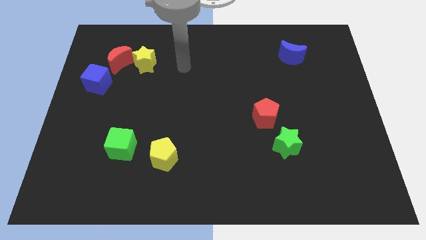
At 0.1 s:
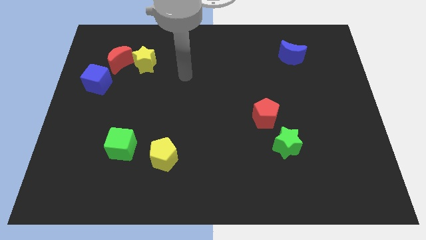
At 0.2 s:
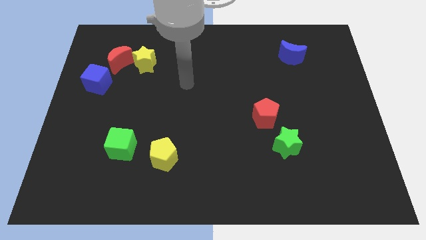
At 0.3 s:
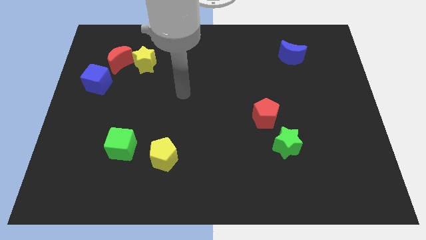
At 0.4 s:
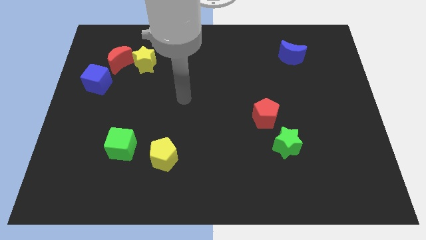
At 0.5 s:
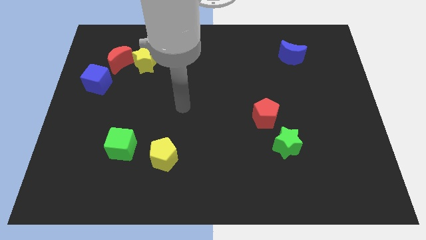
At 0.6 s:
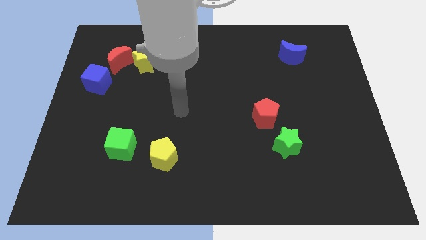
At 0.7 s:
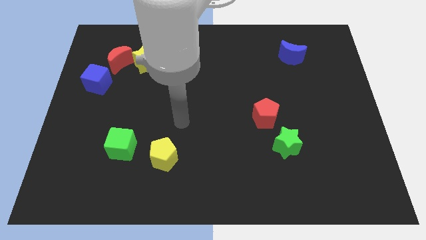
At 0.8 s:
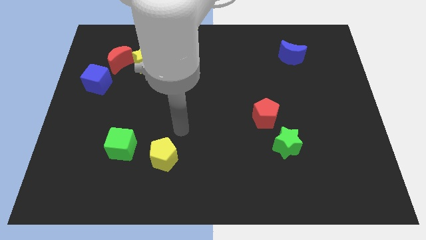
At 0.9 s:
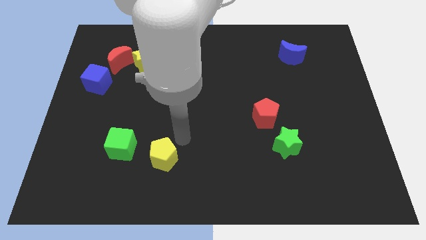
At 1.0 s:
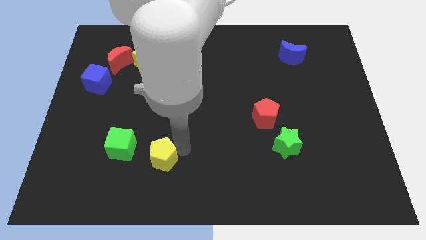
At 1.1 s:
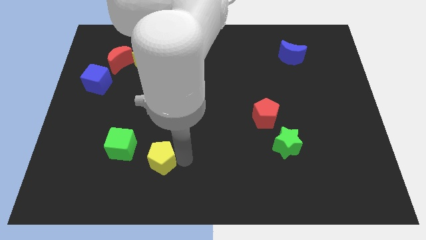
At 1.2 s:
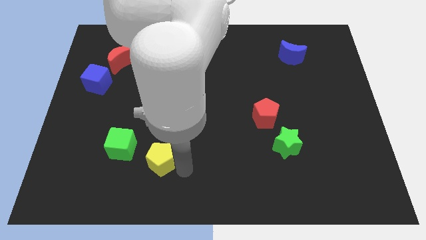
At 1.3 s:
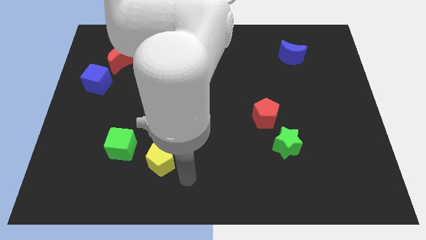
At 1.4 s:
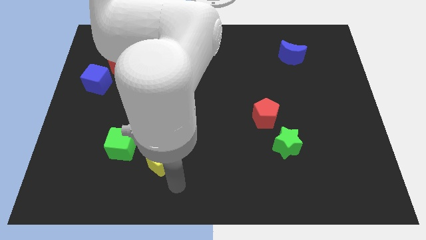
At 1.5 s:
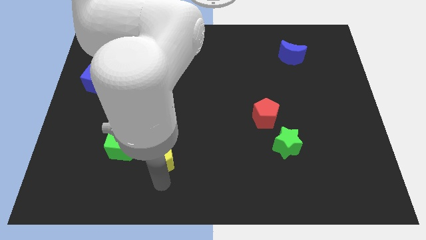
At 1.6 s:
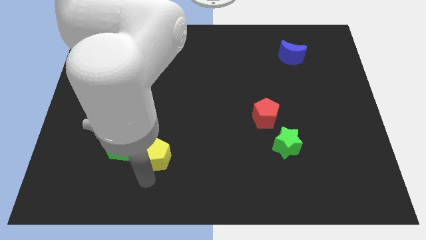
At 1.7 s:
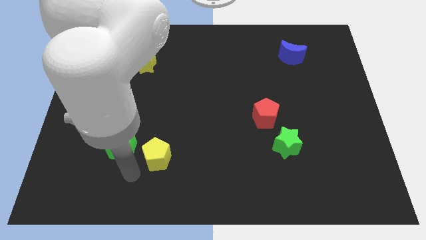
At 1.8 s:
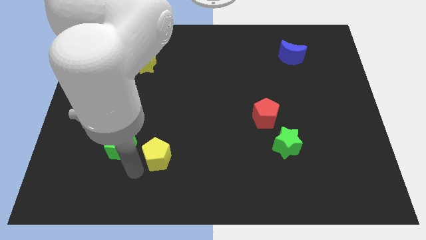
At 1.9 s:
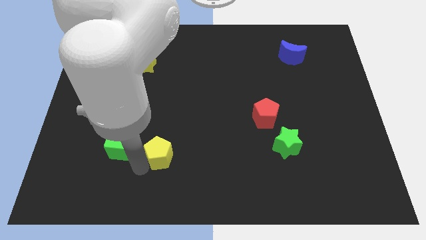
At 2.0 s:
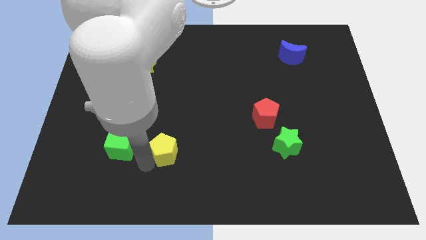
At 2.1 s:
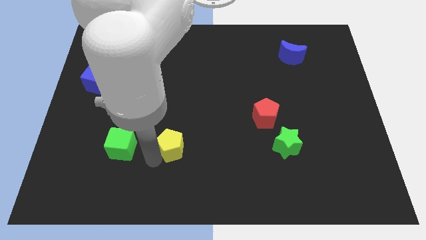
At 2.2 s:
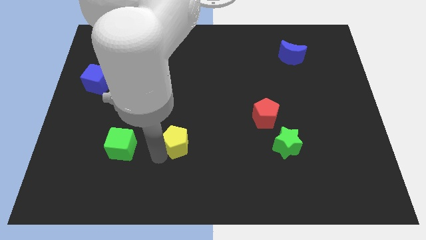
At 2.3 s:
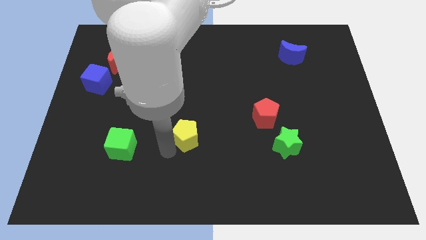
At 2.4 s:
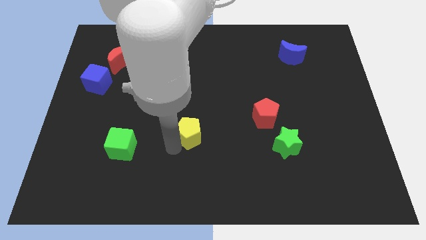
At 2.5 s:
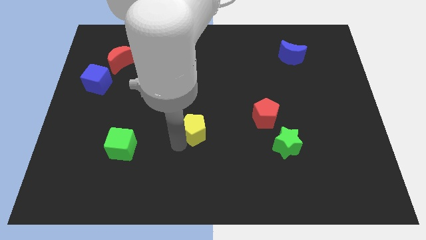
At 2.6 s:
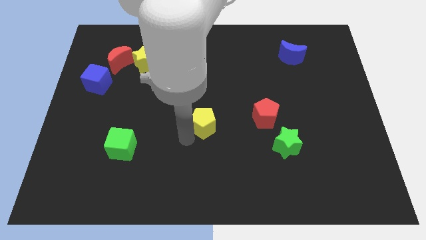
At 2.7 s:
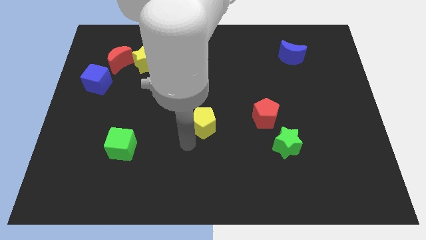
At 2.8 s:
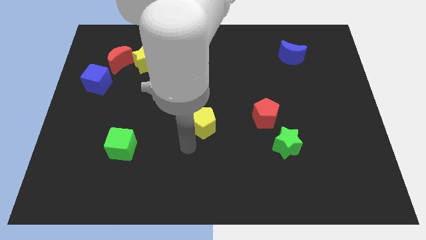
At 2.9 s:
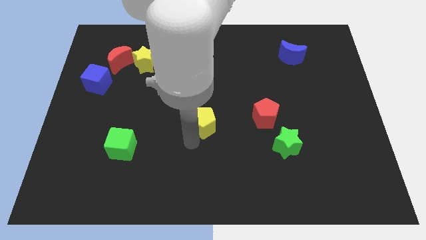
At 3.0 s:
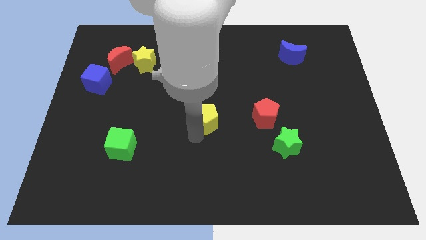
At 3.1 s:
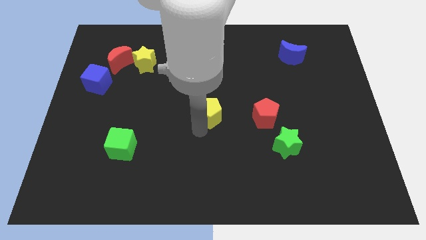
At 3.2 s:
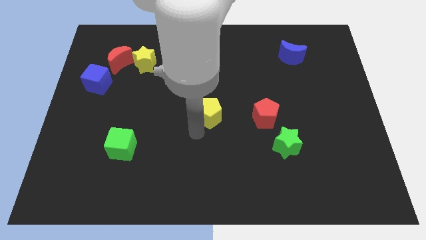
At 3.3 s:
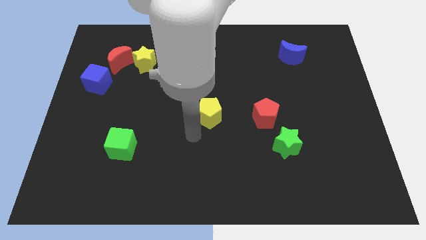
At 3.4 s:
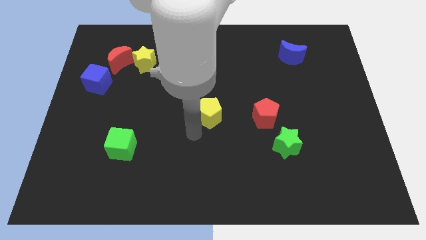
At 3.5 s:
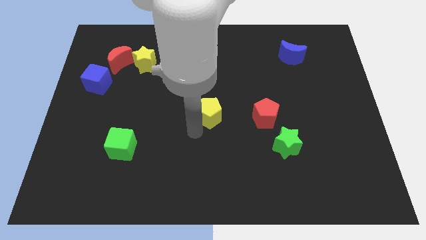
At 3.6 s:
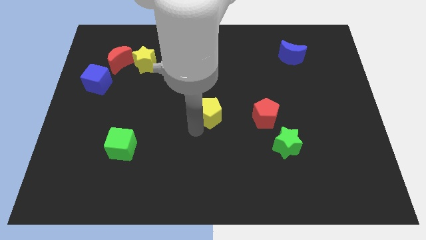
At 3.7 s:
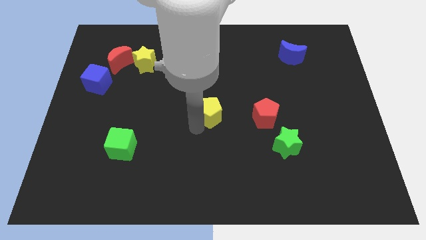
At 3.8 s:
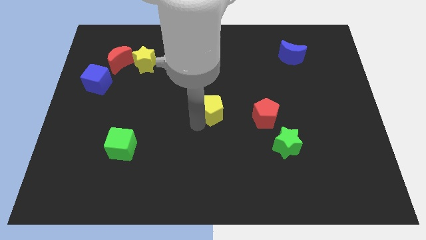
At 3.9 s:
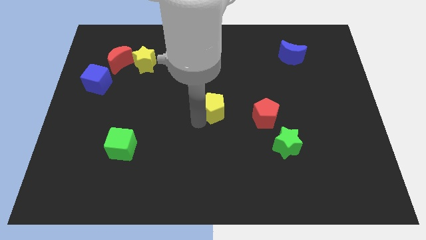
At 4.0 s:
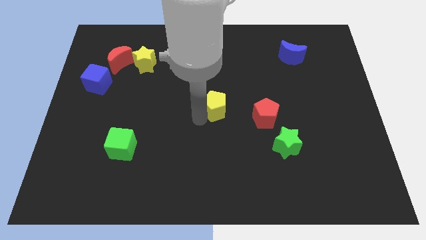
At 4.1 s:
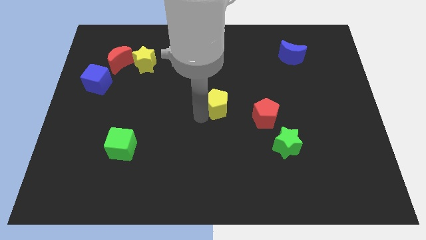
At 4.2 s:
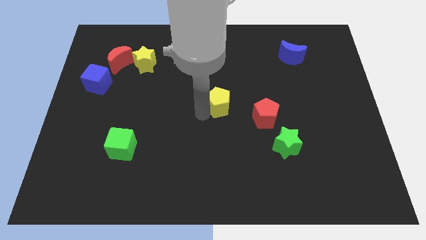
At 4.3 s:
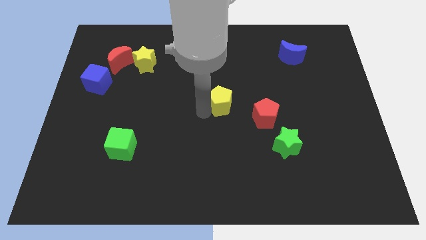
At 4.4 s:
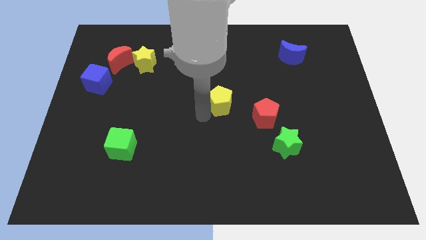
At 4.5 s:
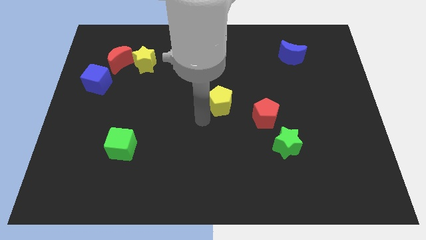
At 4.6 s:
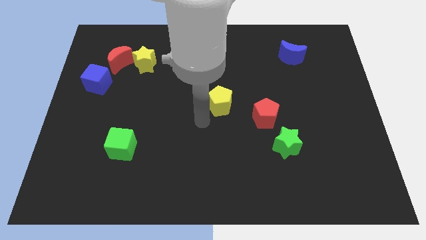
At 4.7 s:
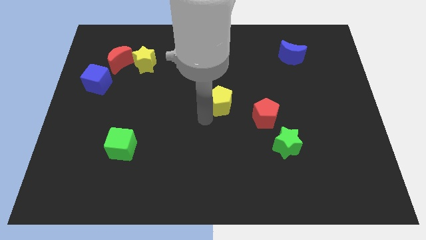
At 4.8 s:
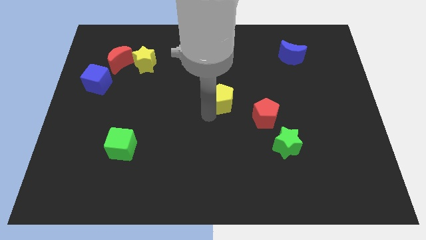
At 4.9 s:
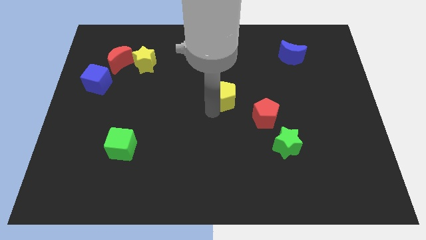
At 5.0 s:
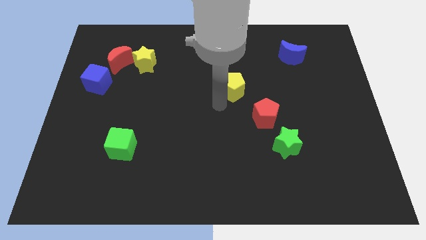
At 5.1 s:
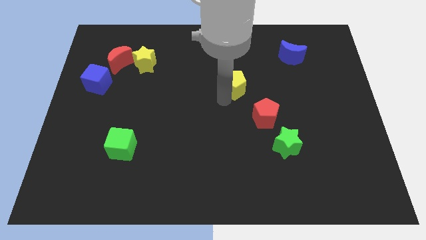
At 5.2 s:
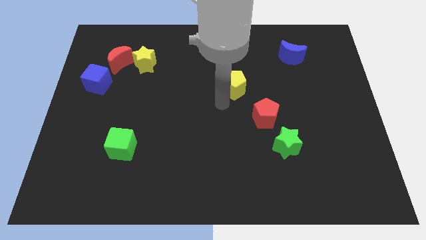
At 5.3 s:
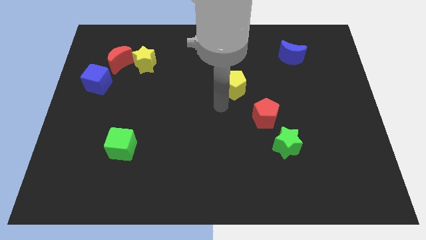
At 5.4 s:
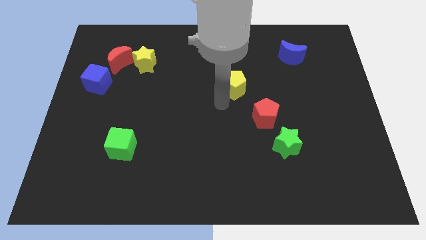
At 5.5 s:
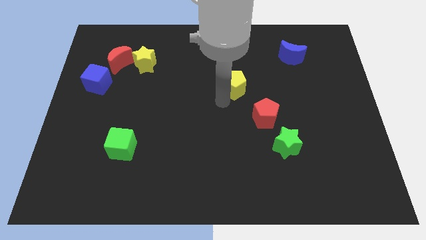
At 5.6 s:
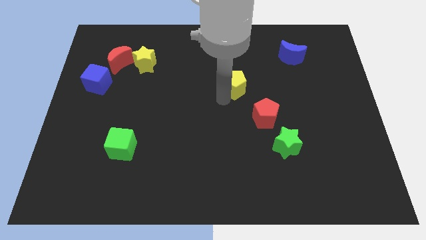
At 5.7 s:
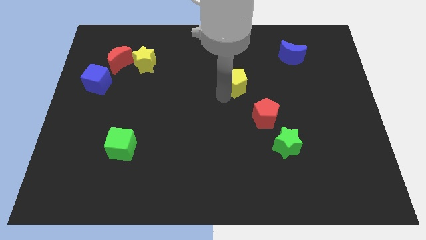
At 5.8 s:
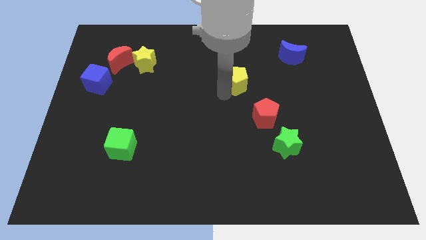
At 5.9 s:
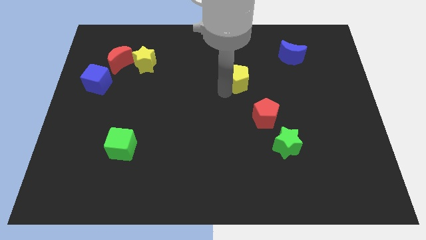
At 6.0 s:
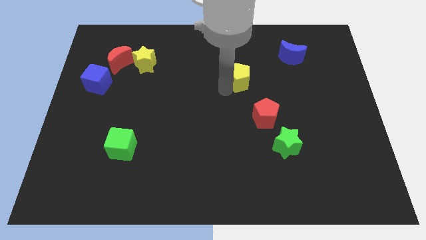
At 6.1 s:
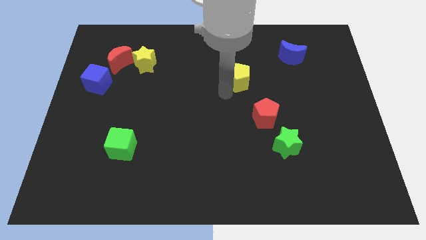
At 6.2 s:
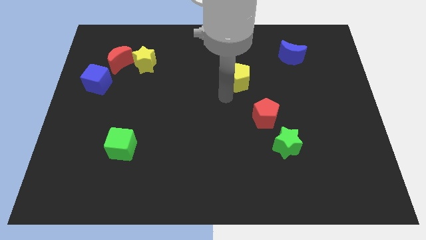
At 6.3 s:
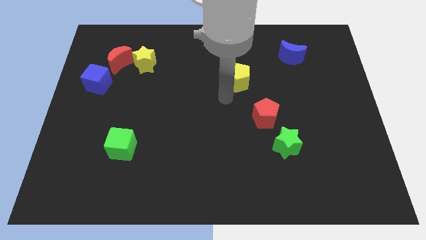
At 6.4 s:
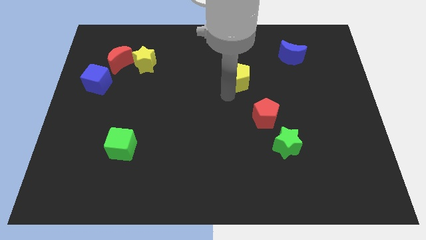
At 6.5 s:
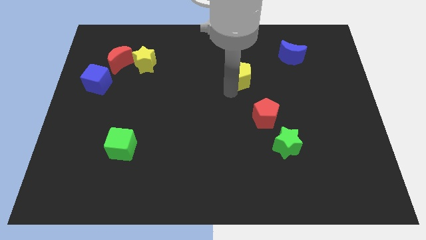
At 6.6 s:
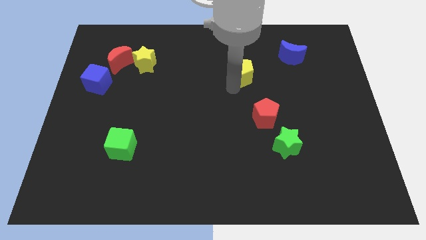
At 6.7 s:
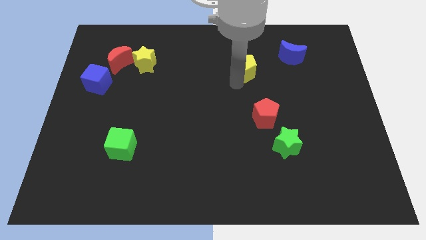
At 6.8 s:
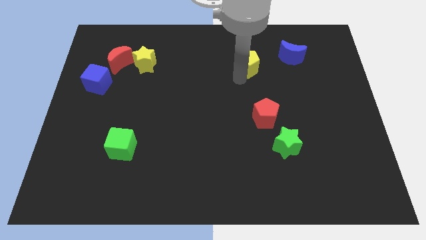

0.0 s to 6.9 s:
slide the yellow pentagon just left of the blue moon
